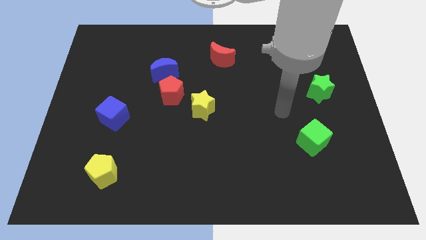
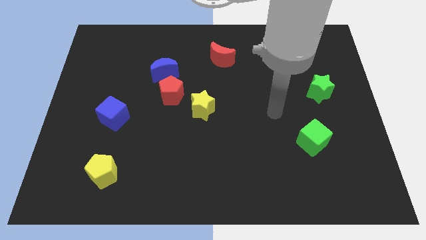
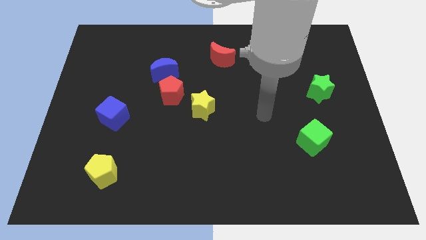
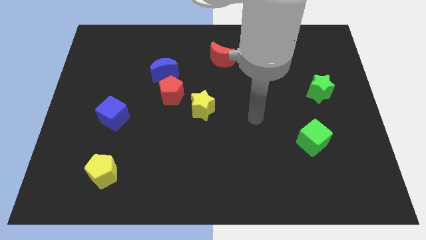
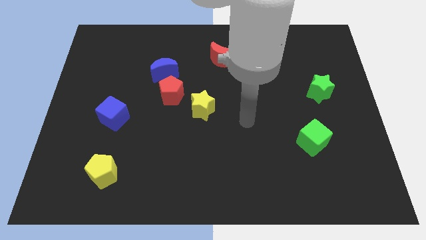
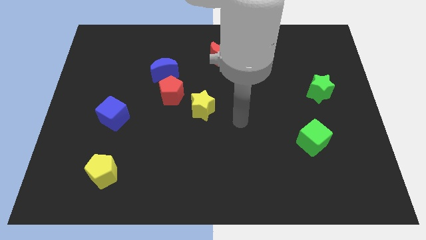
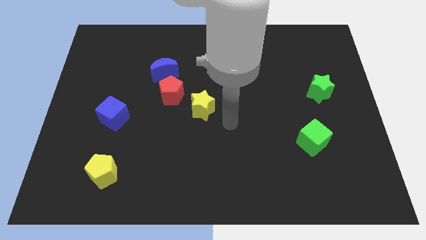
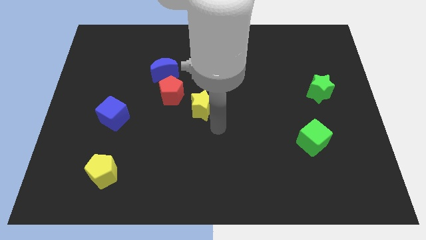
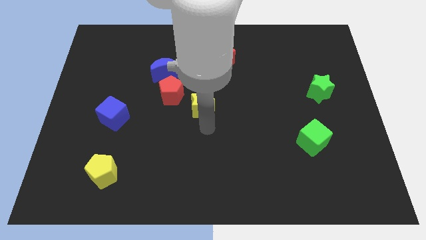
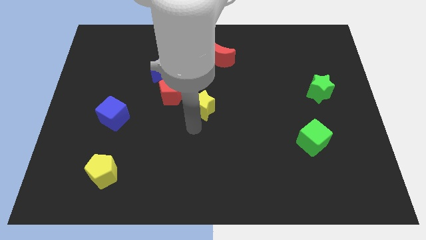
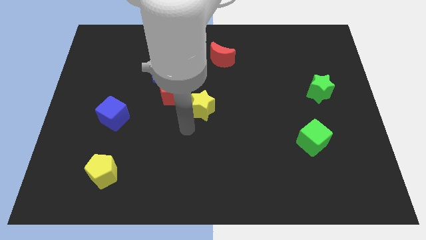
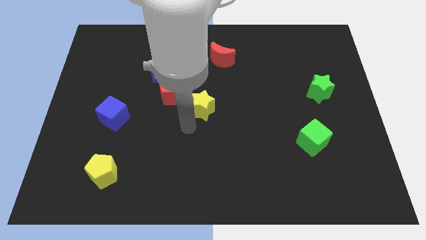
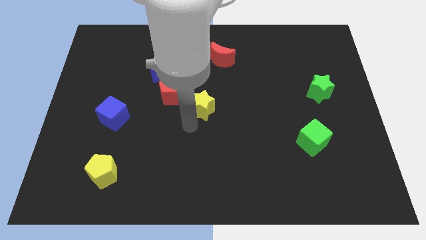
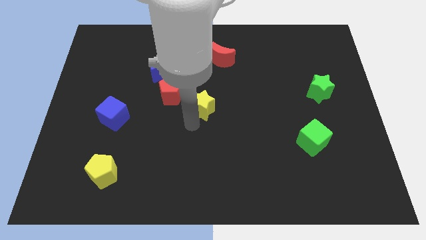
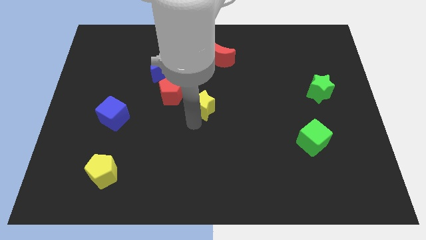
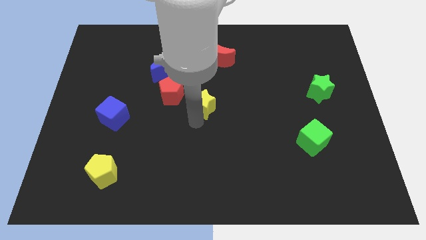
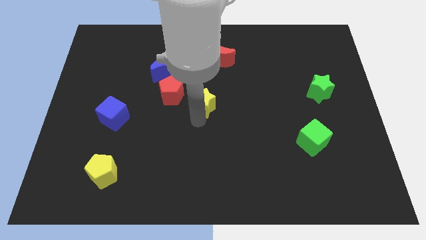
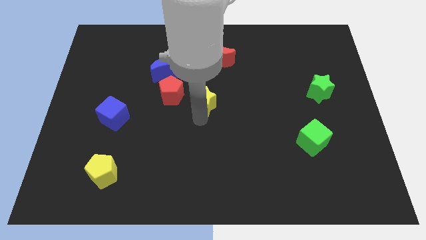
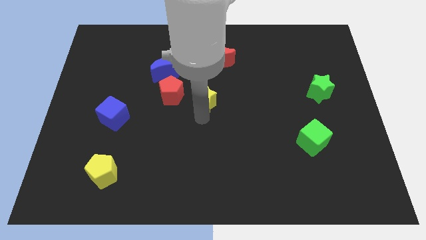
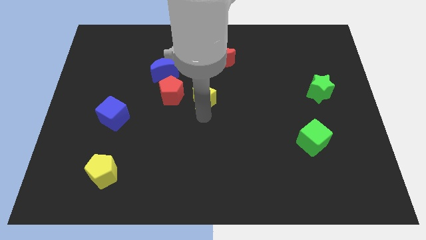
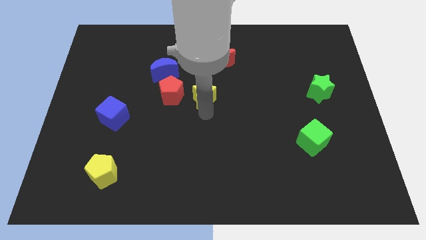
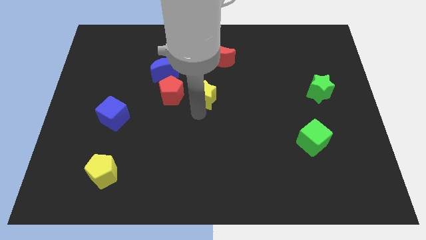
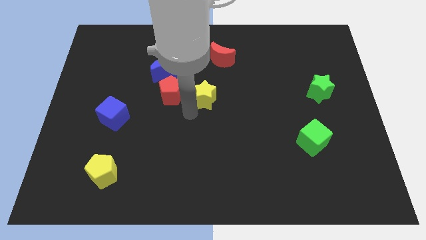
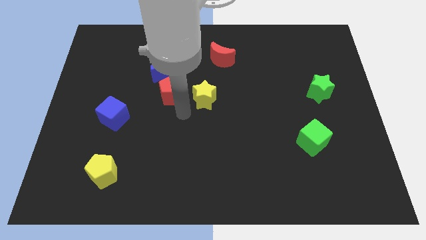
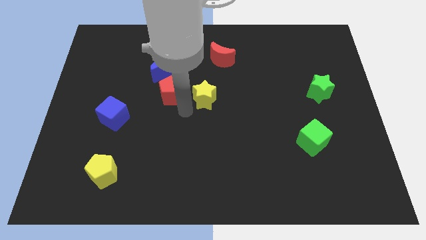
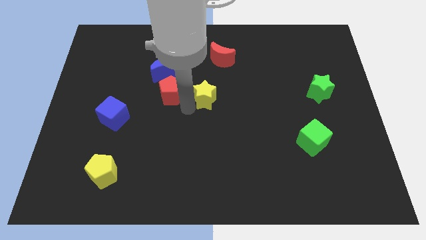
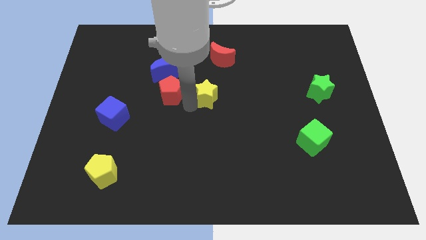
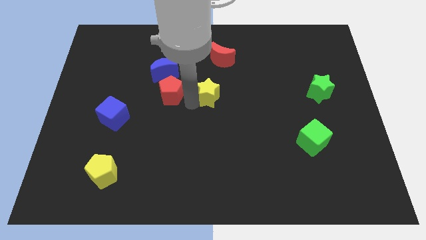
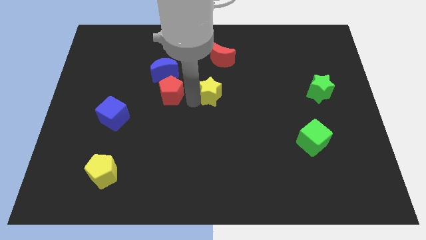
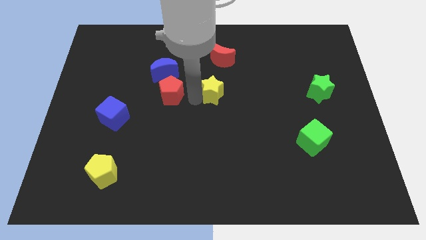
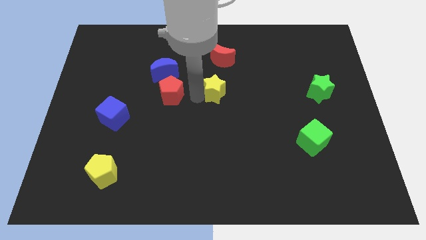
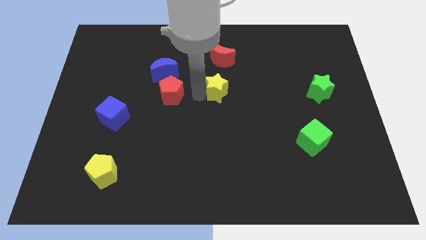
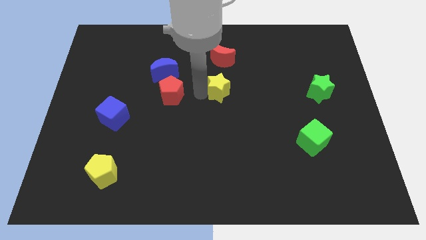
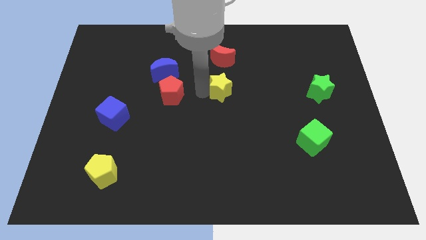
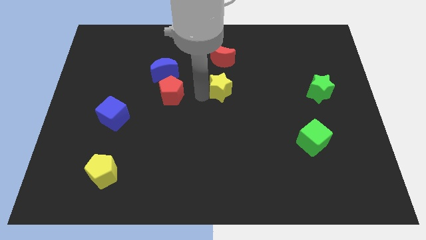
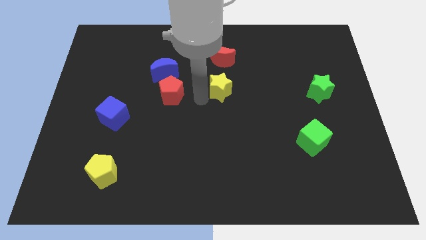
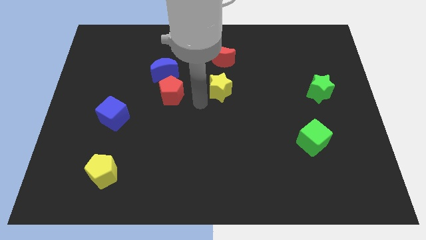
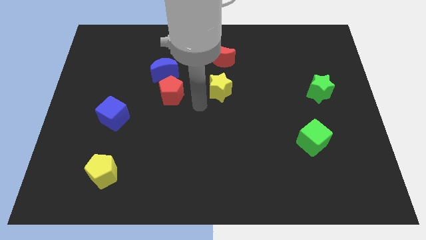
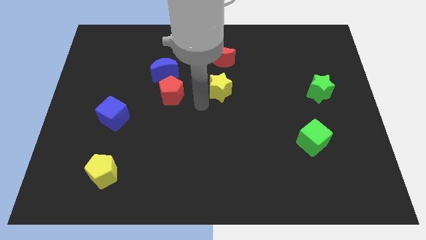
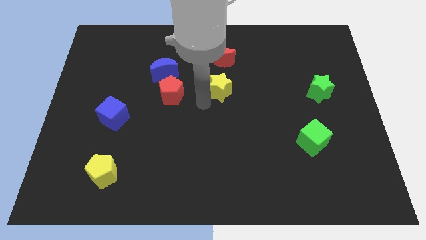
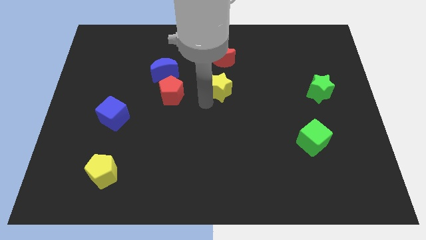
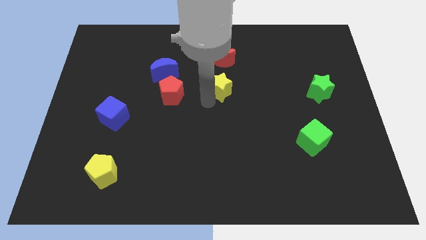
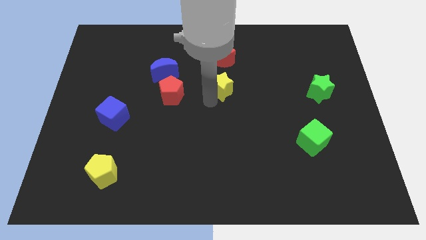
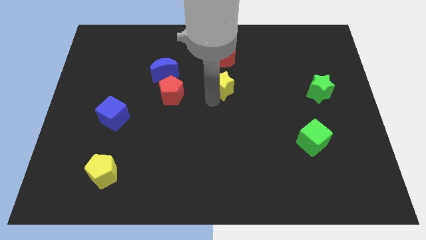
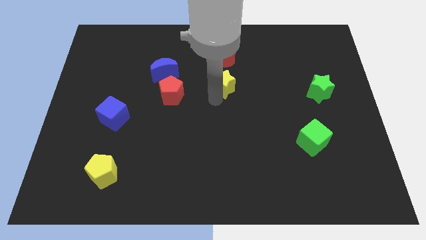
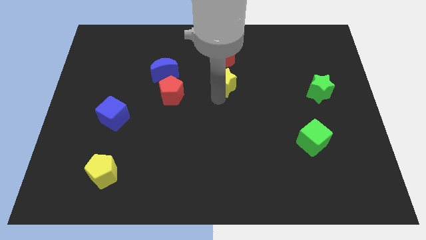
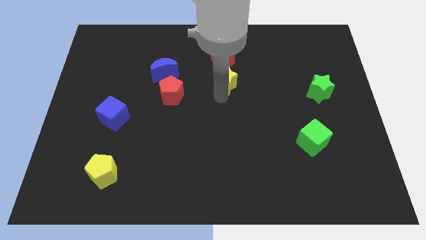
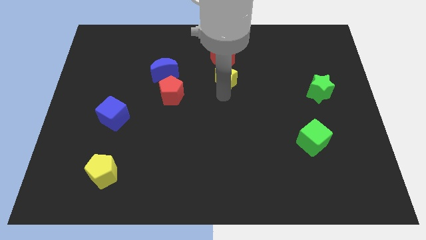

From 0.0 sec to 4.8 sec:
slide the yellow star to the bottom right side of the red moon

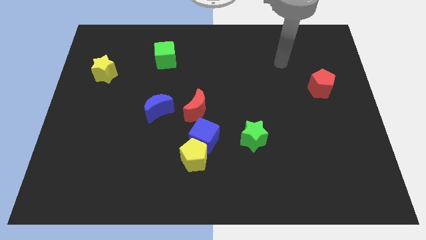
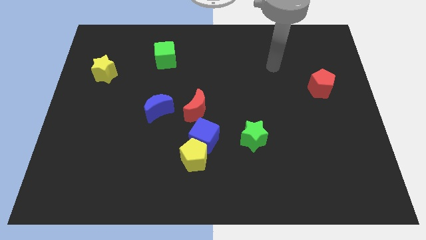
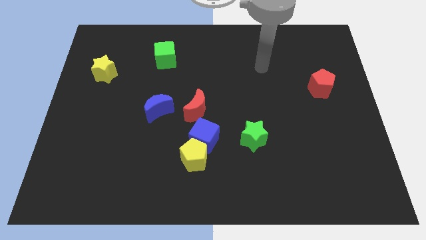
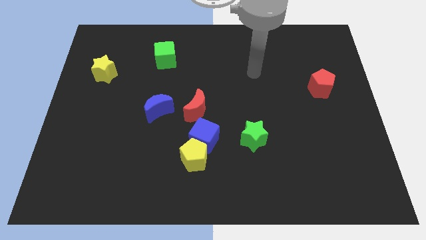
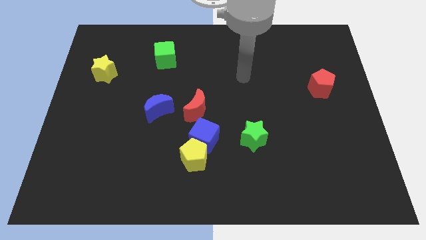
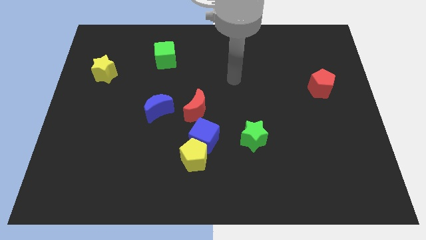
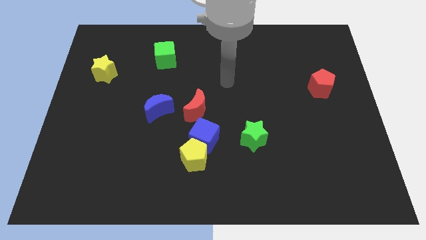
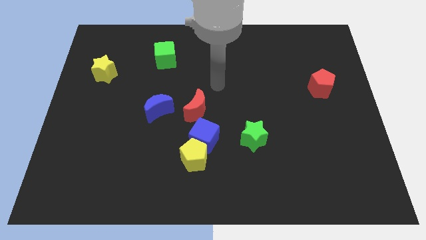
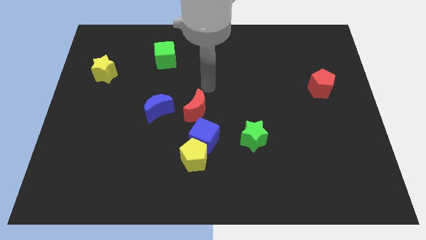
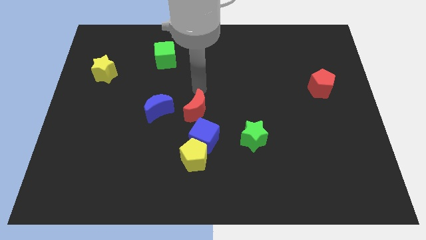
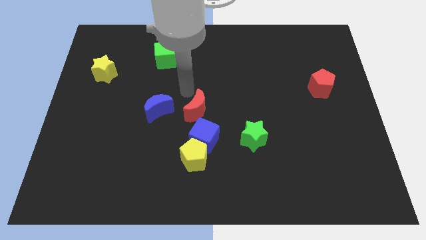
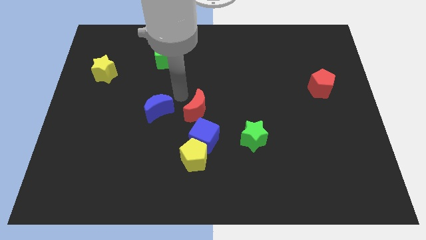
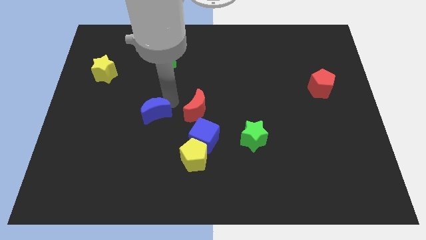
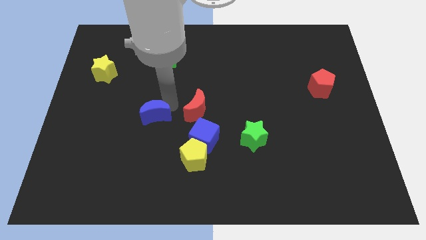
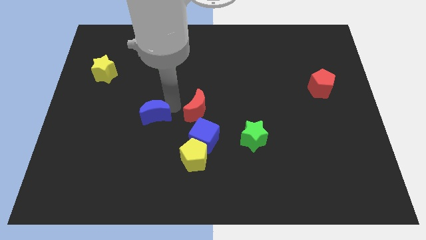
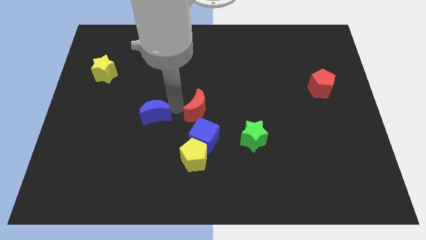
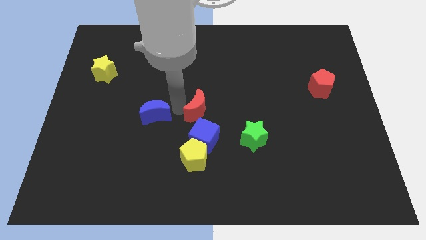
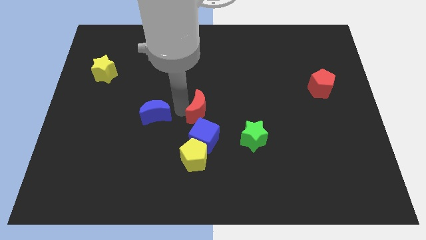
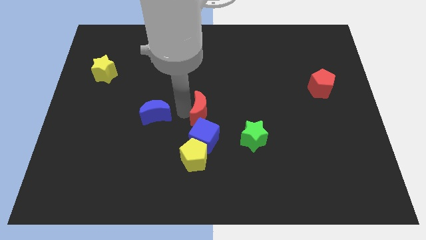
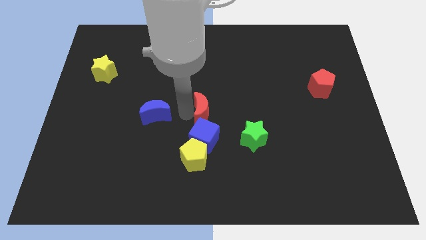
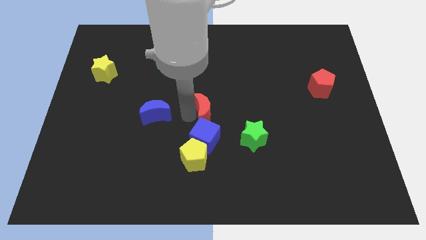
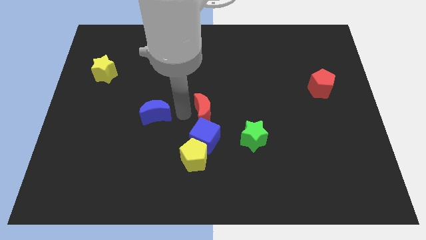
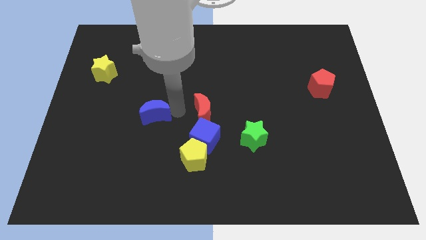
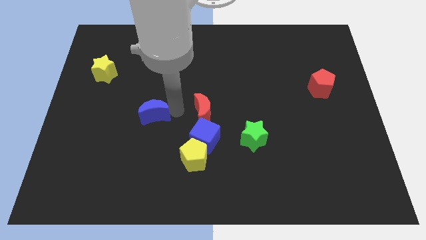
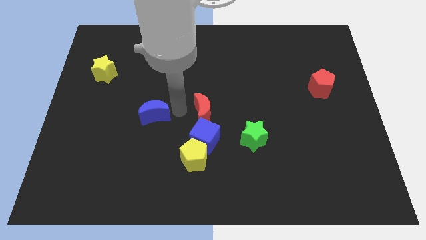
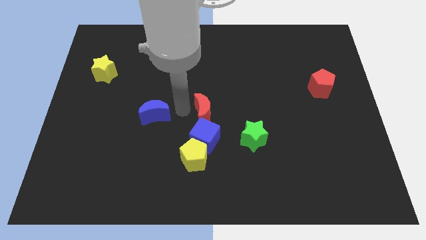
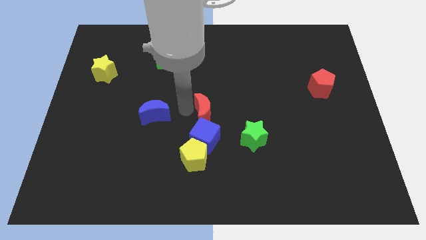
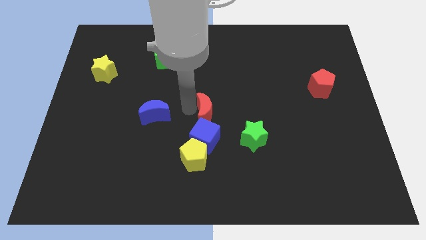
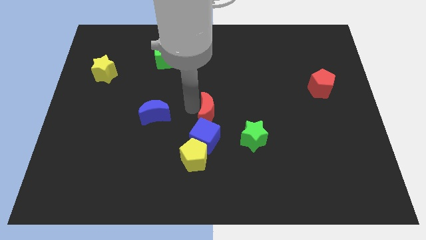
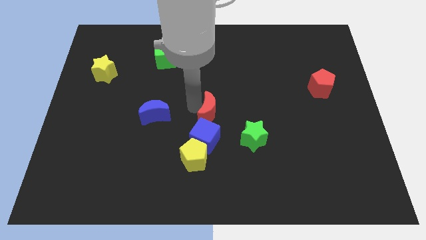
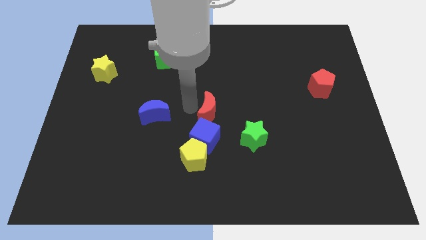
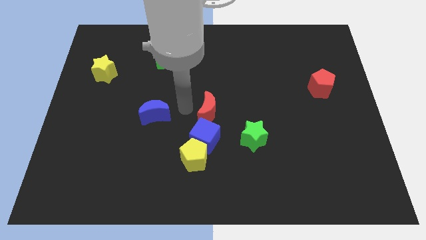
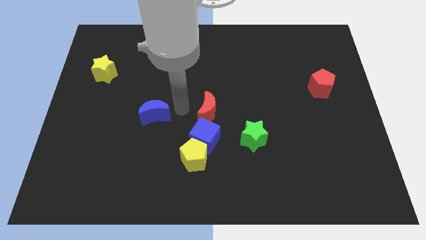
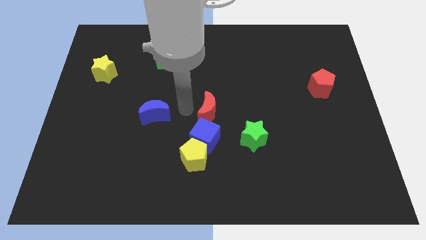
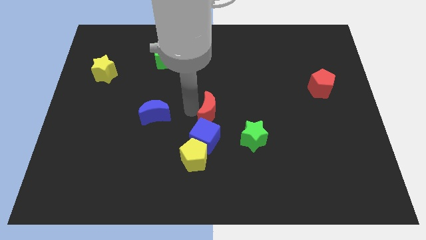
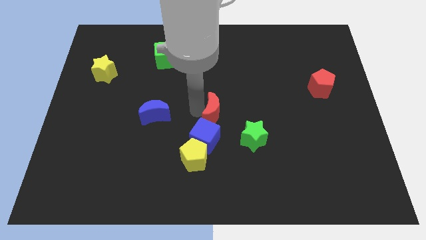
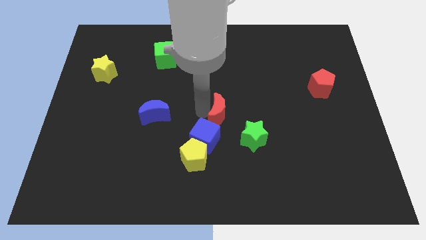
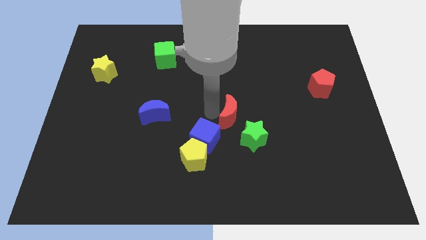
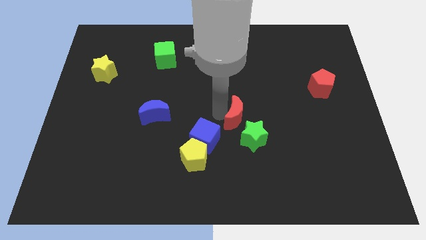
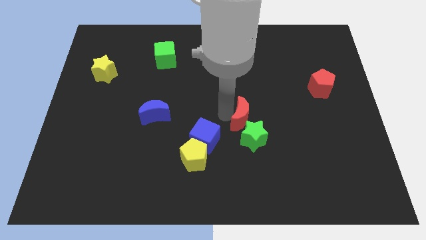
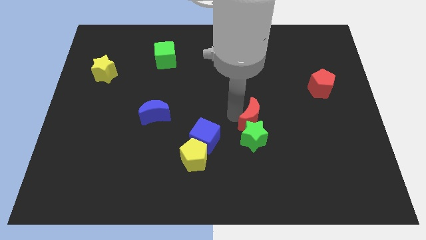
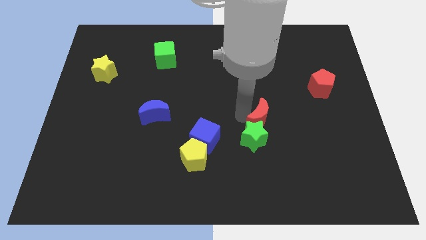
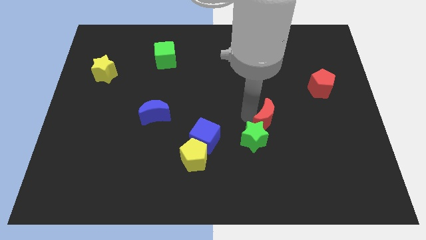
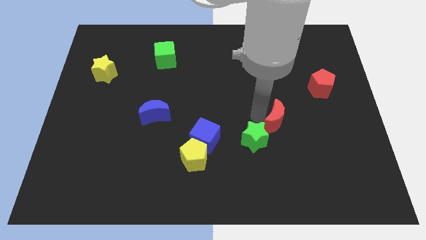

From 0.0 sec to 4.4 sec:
put the red moon right of the green star
